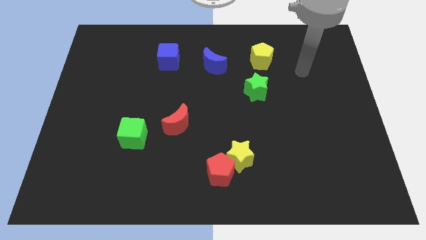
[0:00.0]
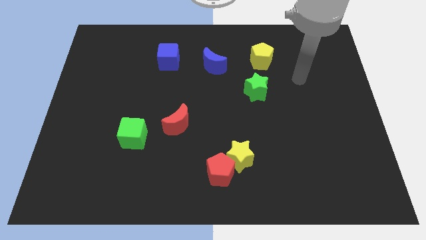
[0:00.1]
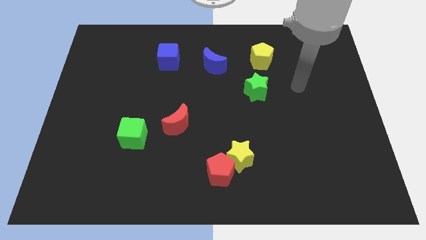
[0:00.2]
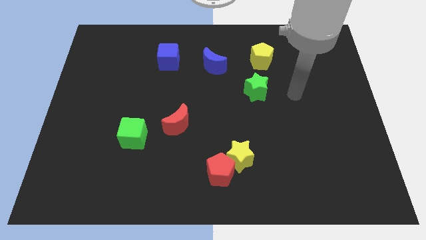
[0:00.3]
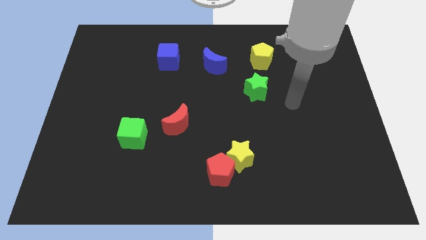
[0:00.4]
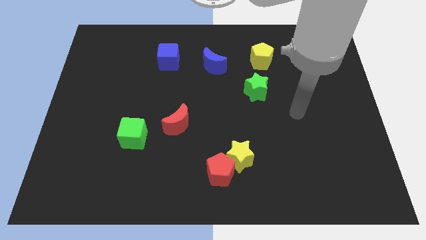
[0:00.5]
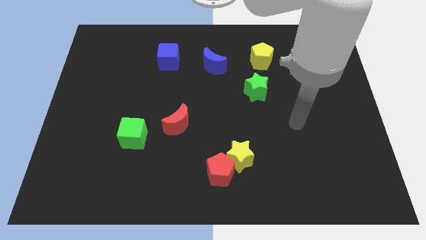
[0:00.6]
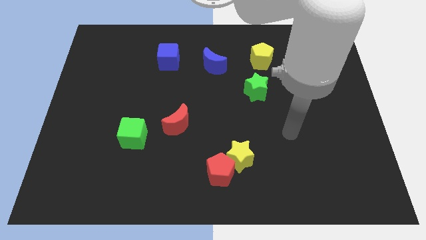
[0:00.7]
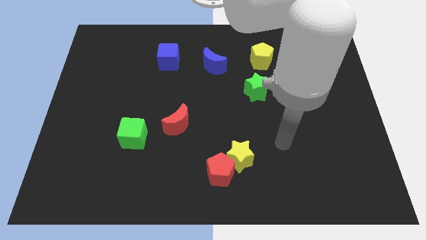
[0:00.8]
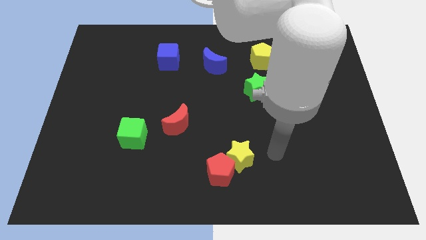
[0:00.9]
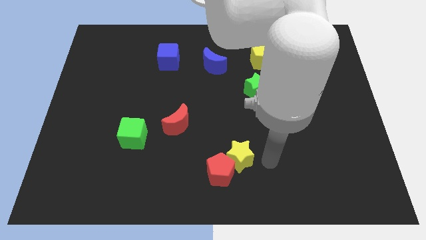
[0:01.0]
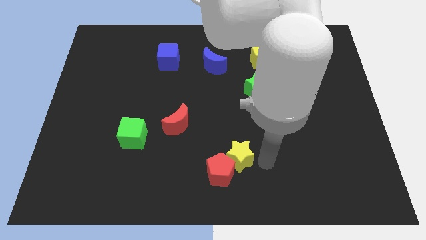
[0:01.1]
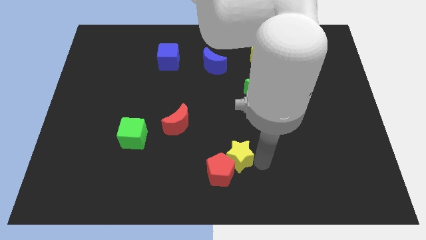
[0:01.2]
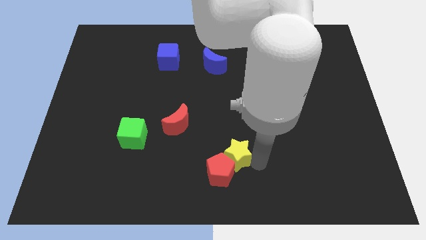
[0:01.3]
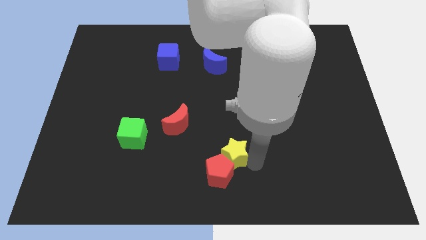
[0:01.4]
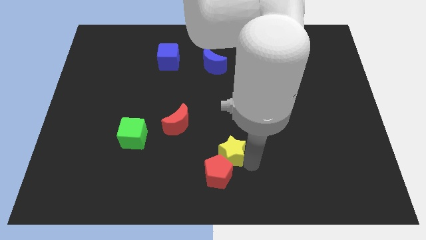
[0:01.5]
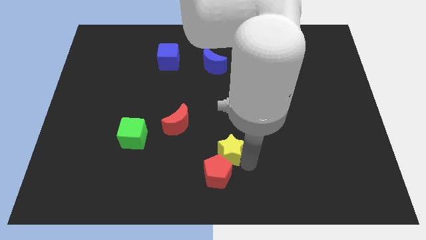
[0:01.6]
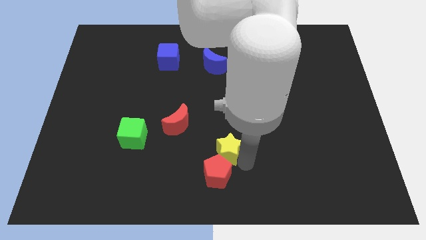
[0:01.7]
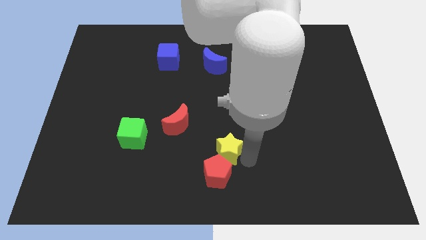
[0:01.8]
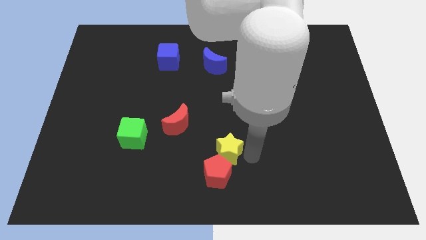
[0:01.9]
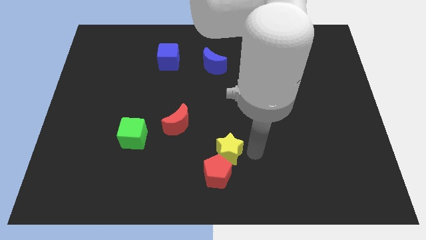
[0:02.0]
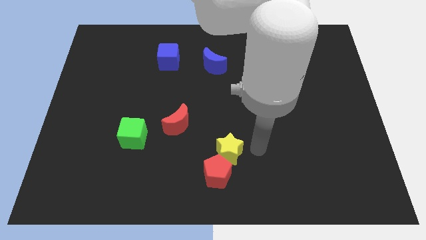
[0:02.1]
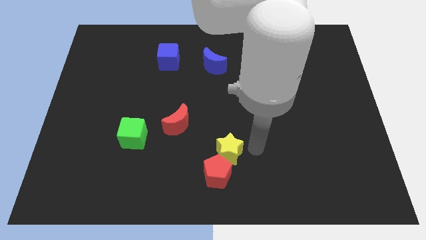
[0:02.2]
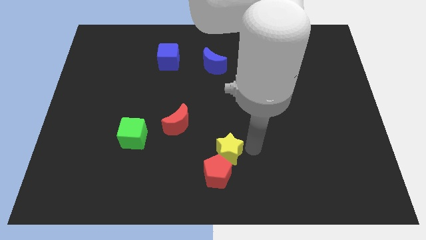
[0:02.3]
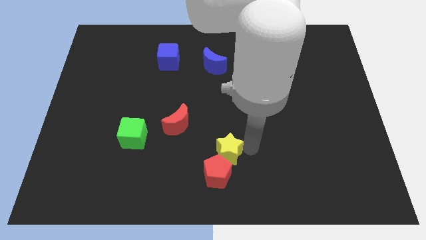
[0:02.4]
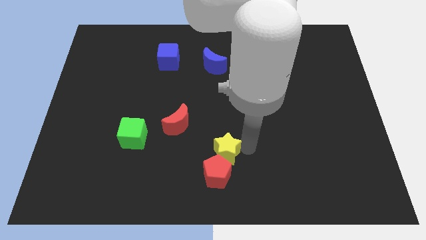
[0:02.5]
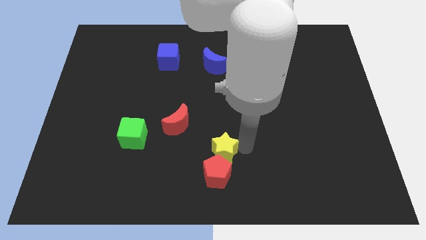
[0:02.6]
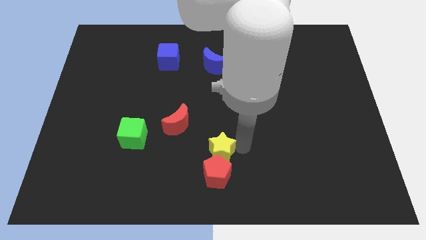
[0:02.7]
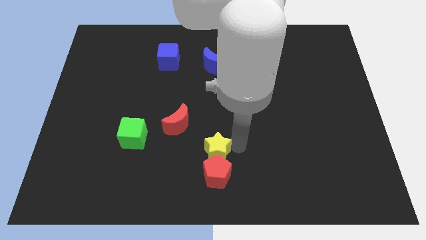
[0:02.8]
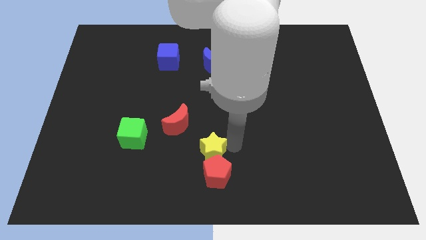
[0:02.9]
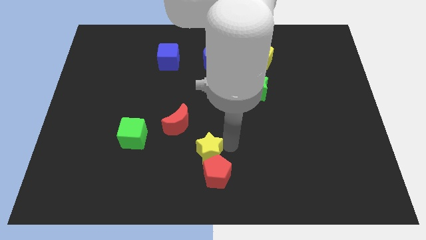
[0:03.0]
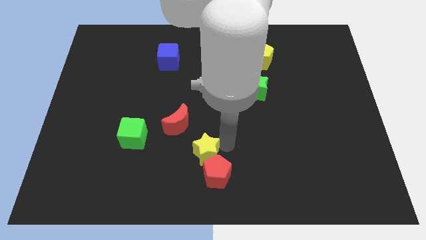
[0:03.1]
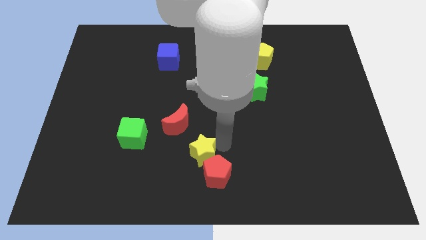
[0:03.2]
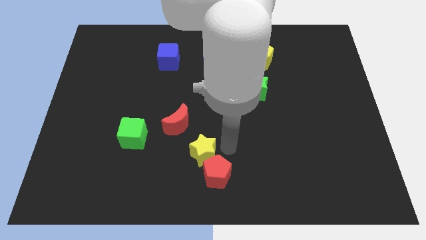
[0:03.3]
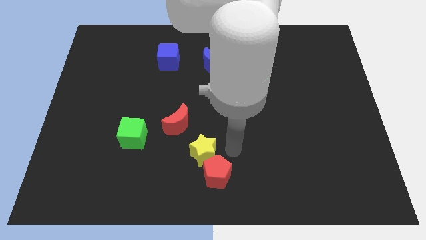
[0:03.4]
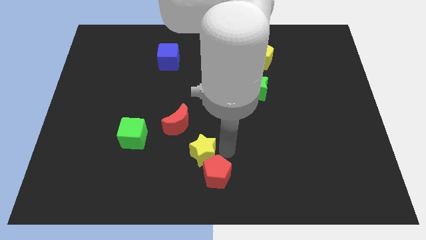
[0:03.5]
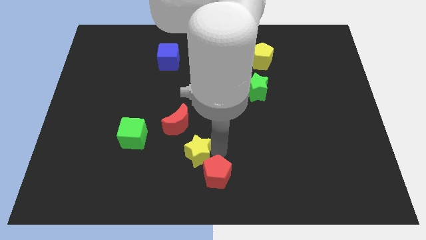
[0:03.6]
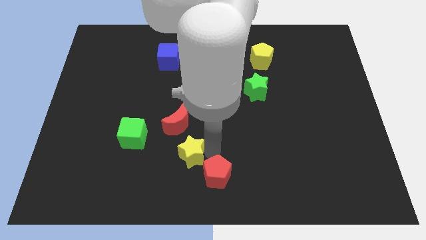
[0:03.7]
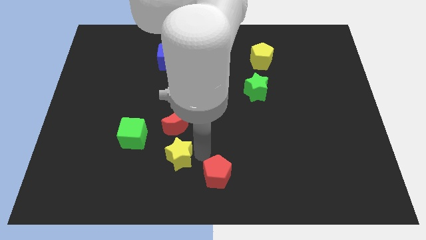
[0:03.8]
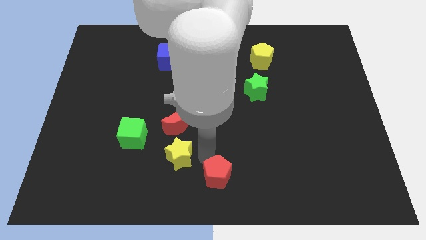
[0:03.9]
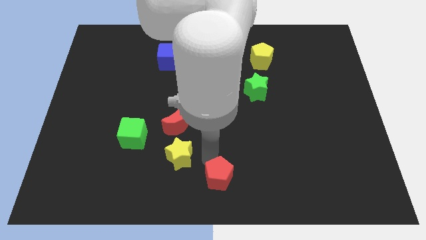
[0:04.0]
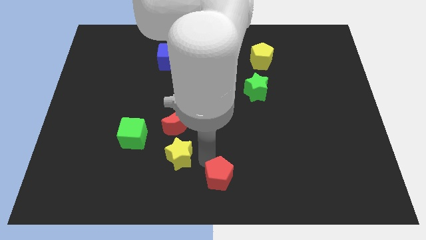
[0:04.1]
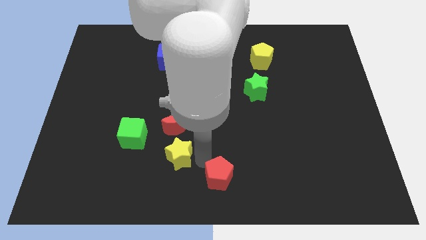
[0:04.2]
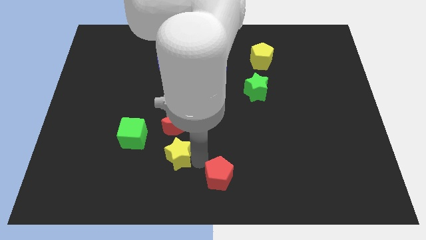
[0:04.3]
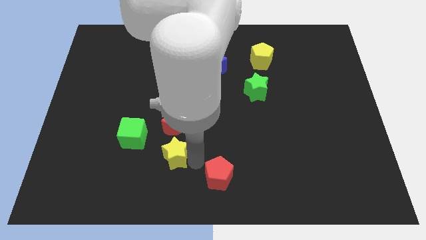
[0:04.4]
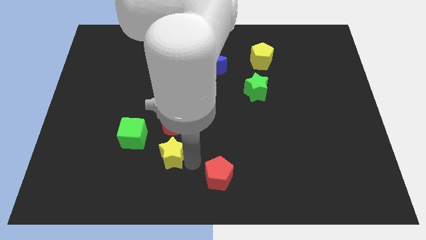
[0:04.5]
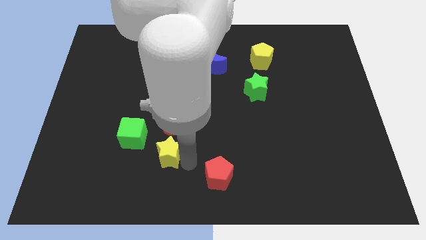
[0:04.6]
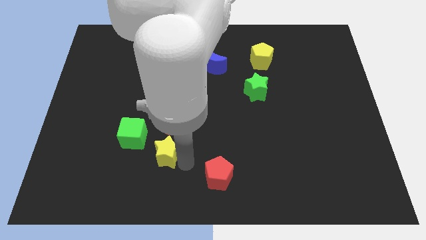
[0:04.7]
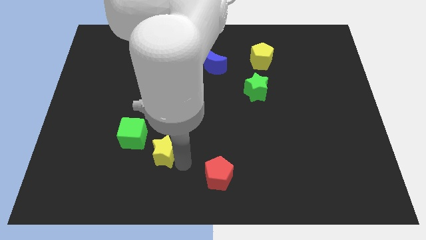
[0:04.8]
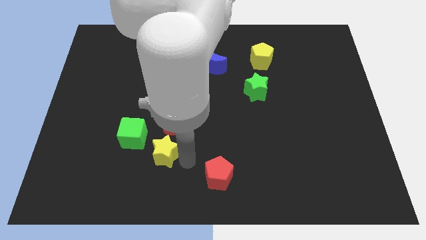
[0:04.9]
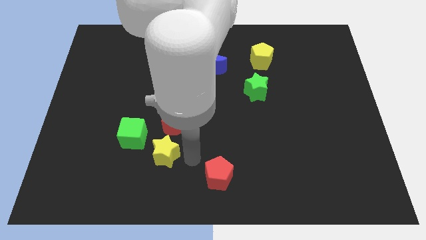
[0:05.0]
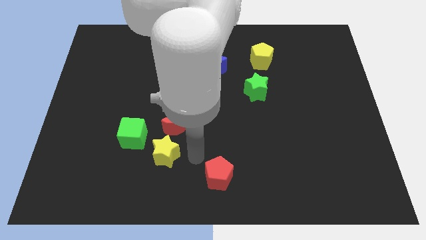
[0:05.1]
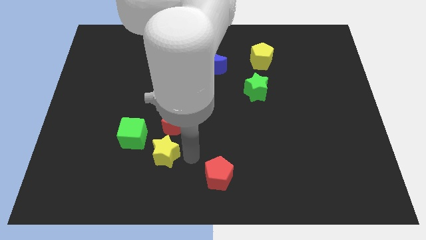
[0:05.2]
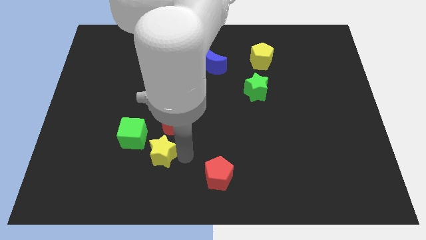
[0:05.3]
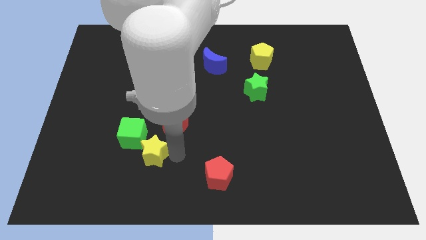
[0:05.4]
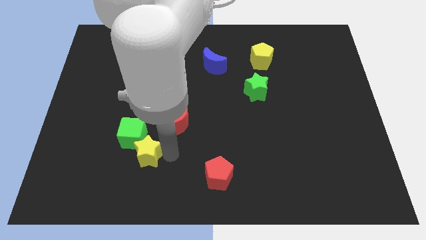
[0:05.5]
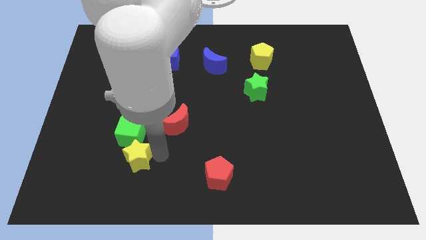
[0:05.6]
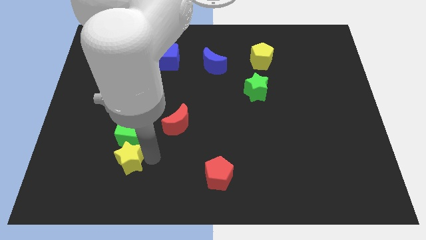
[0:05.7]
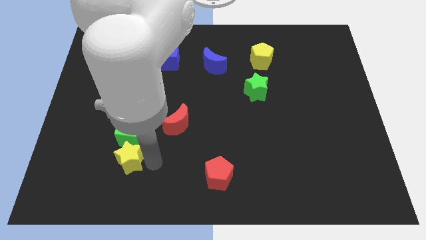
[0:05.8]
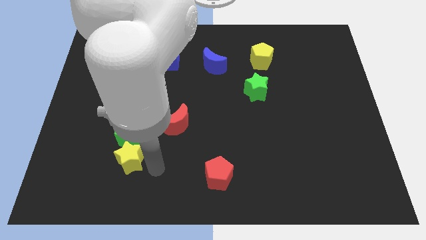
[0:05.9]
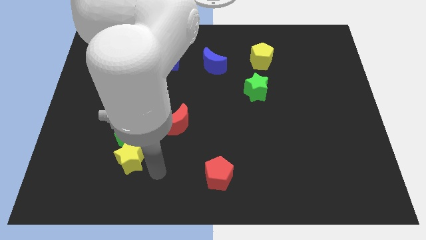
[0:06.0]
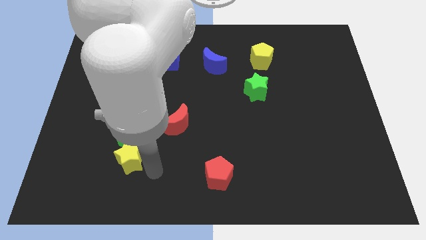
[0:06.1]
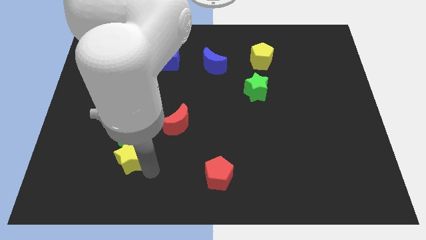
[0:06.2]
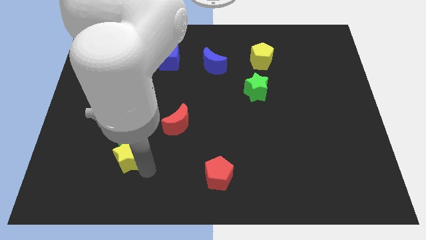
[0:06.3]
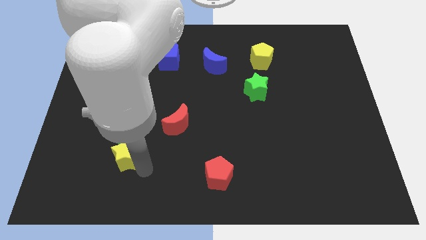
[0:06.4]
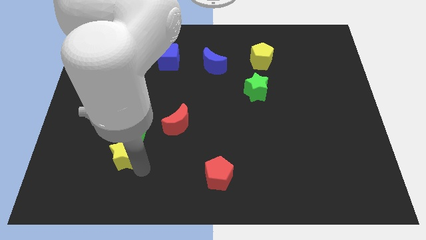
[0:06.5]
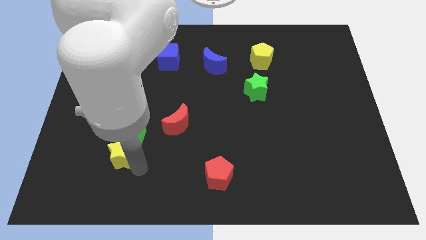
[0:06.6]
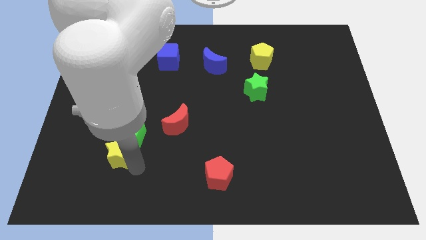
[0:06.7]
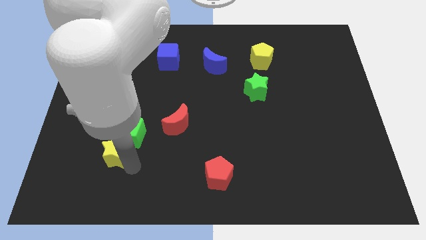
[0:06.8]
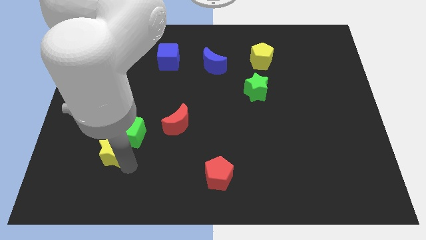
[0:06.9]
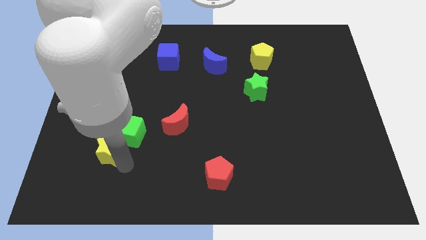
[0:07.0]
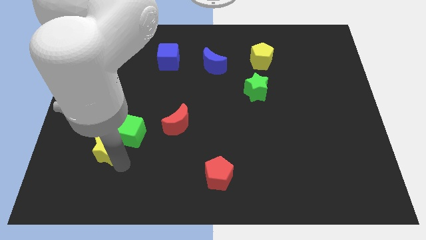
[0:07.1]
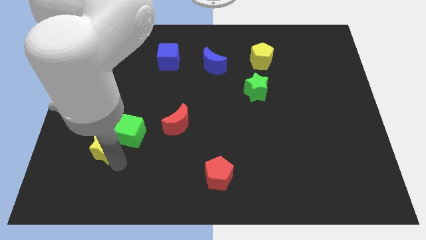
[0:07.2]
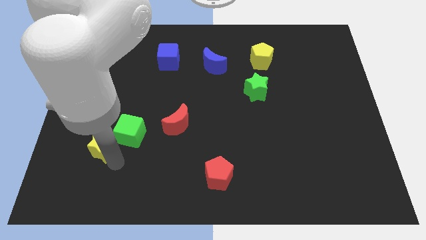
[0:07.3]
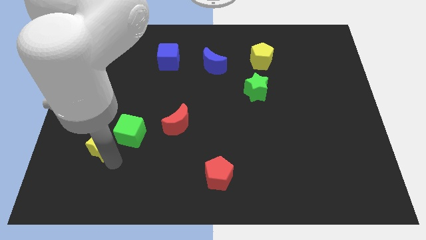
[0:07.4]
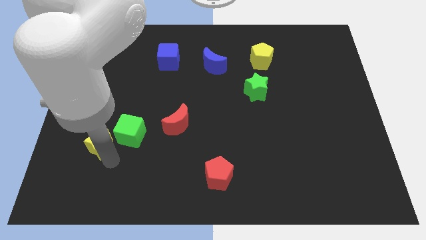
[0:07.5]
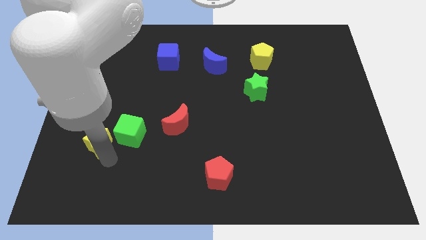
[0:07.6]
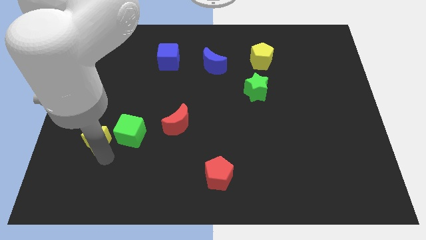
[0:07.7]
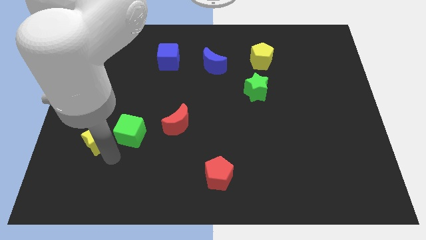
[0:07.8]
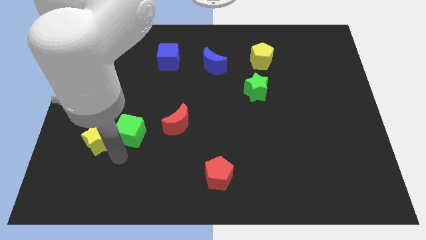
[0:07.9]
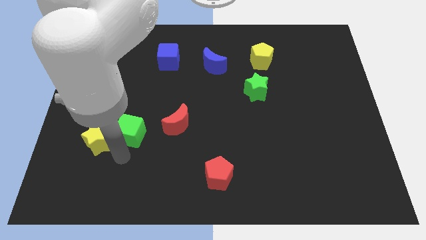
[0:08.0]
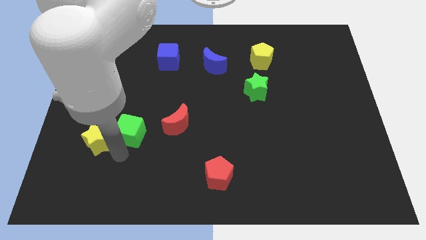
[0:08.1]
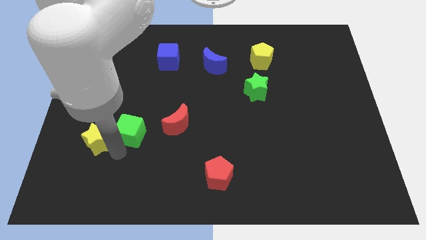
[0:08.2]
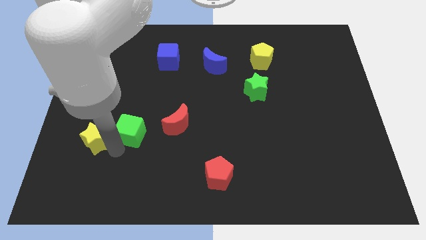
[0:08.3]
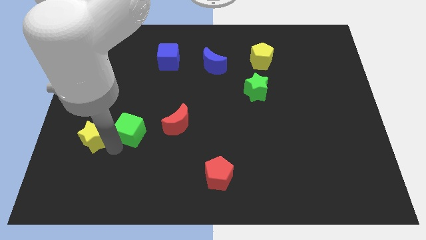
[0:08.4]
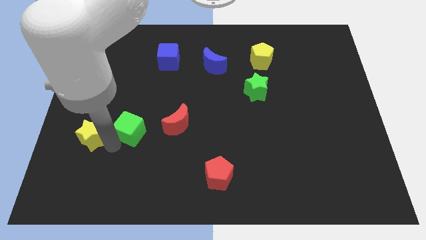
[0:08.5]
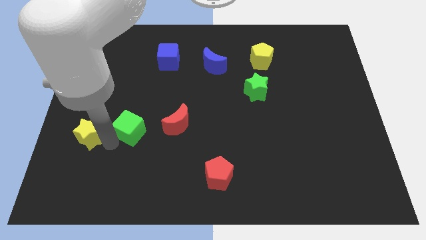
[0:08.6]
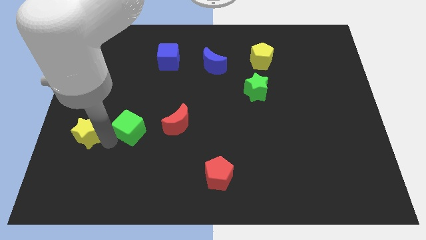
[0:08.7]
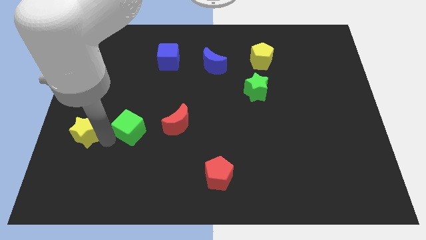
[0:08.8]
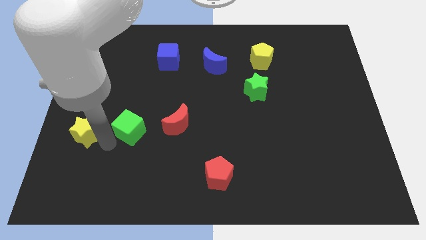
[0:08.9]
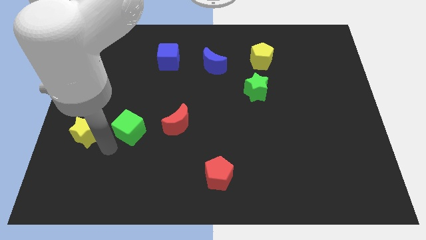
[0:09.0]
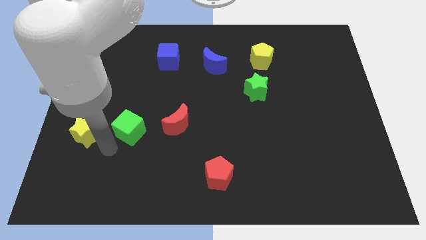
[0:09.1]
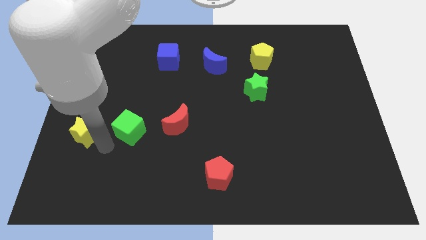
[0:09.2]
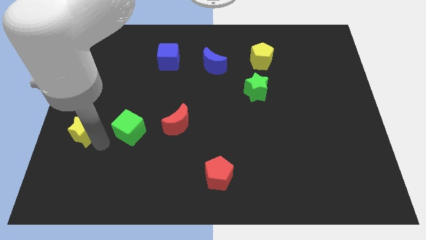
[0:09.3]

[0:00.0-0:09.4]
put the yellow star to the center left
